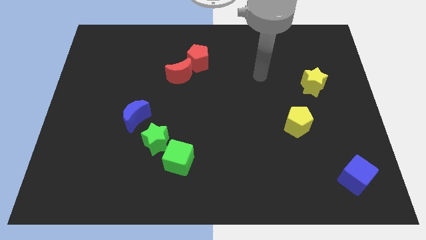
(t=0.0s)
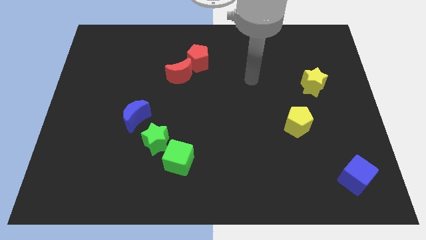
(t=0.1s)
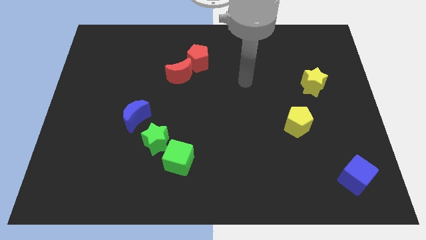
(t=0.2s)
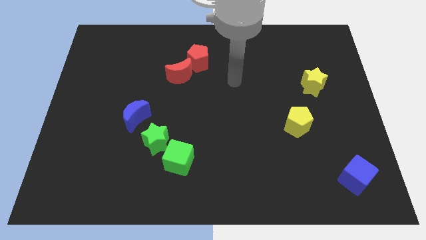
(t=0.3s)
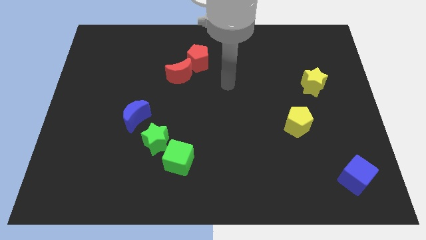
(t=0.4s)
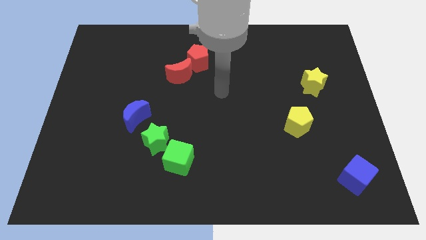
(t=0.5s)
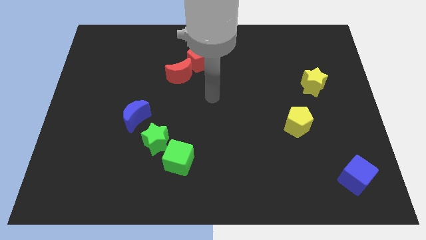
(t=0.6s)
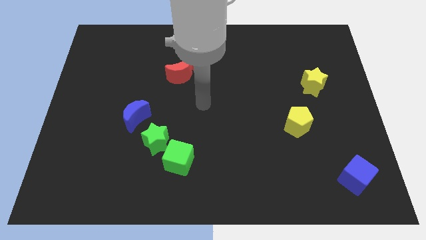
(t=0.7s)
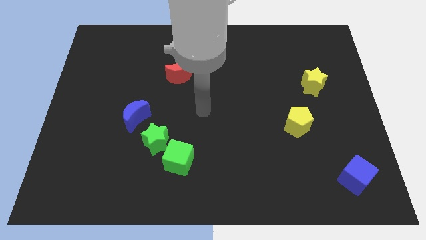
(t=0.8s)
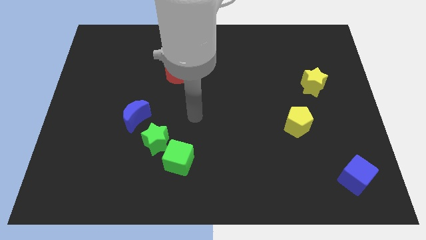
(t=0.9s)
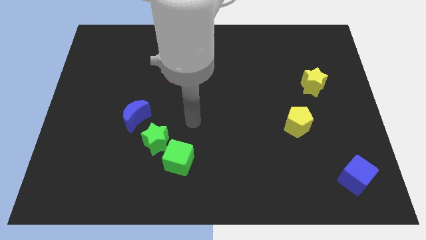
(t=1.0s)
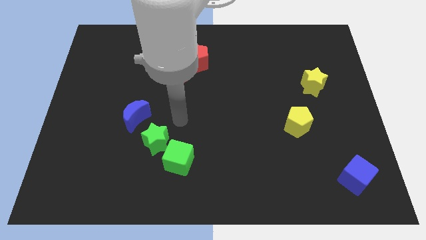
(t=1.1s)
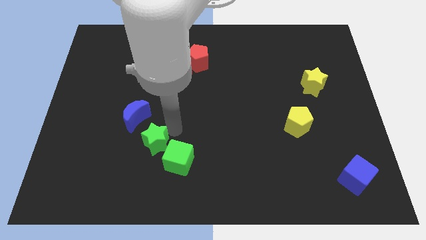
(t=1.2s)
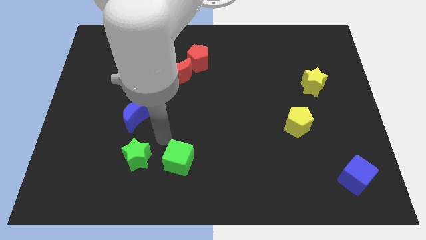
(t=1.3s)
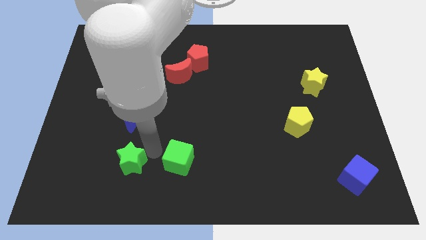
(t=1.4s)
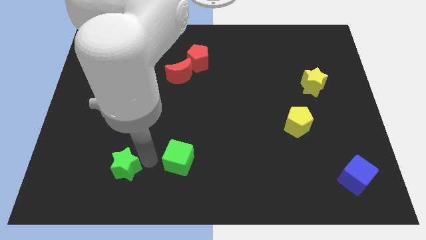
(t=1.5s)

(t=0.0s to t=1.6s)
separate the green cube from the green star

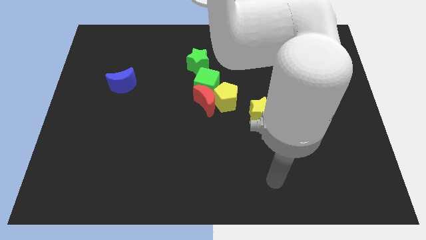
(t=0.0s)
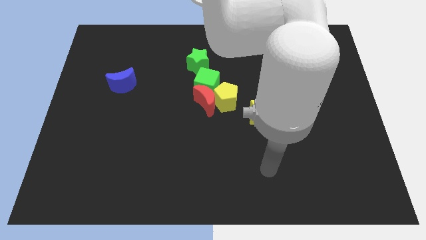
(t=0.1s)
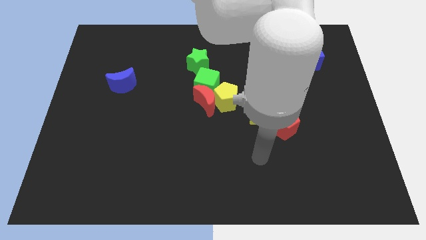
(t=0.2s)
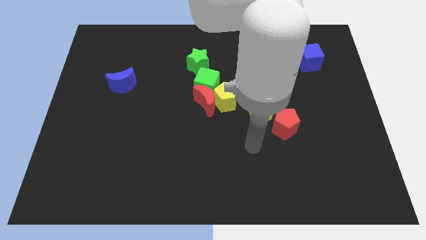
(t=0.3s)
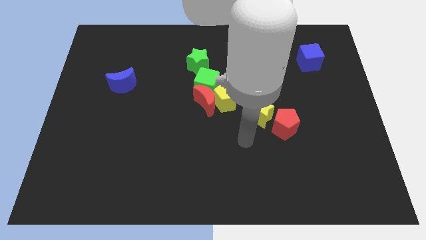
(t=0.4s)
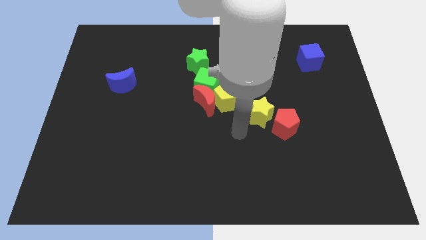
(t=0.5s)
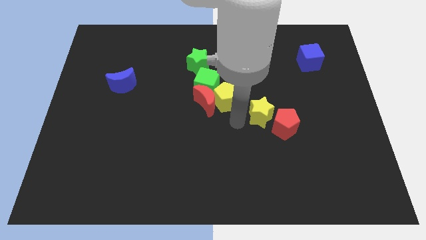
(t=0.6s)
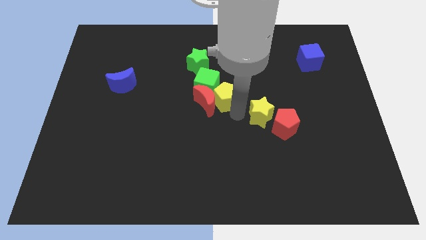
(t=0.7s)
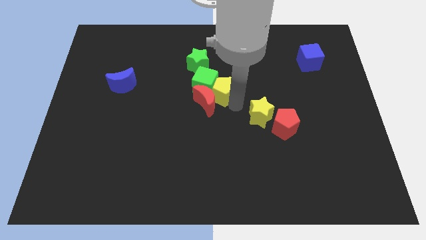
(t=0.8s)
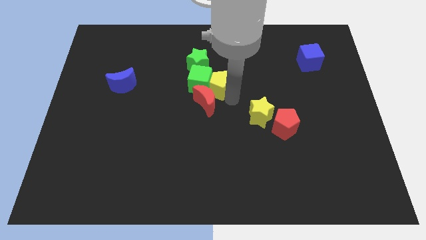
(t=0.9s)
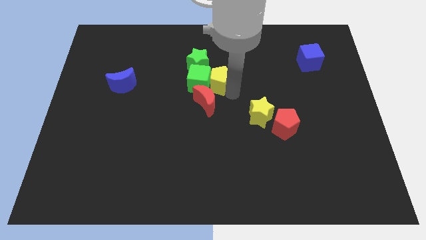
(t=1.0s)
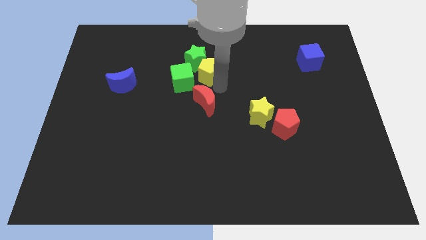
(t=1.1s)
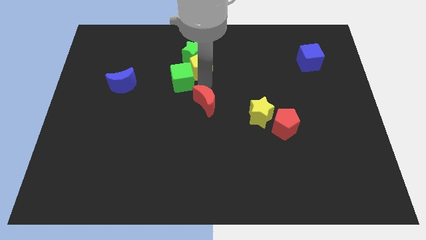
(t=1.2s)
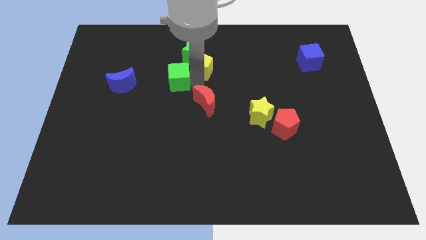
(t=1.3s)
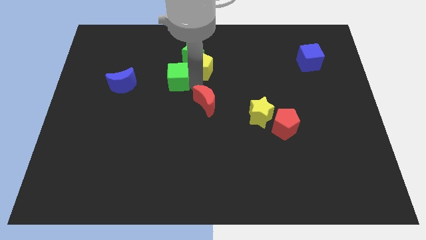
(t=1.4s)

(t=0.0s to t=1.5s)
separate the red moon from the yellow pentagon and green cube

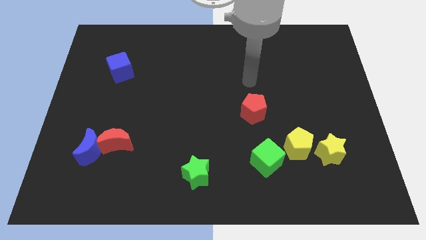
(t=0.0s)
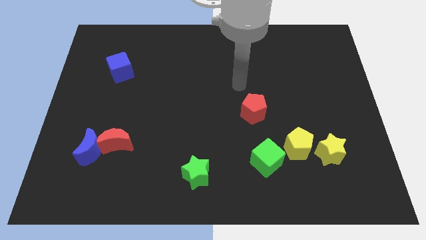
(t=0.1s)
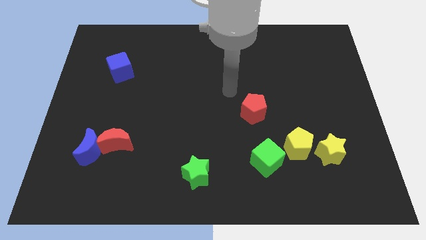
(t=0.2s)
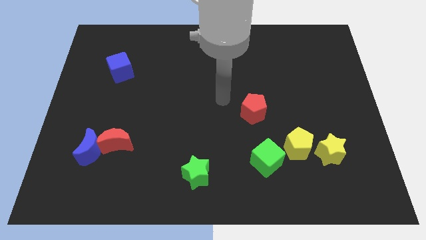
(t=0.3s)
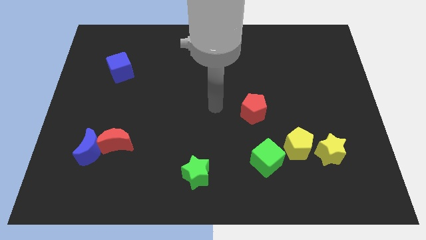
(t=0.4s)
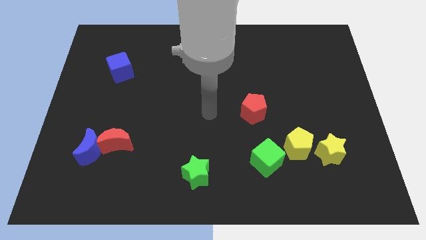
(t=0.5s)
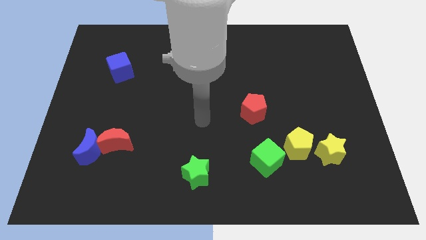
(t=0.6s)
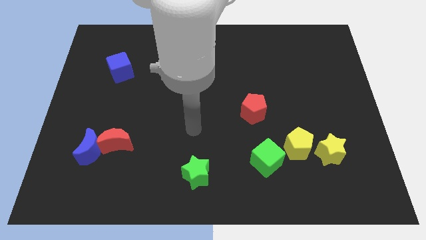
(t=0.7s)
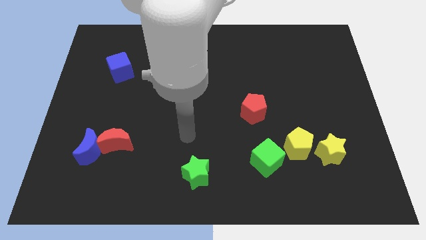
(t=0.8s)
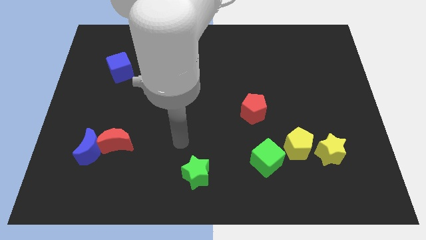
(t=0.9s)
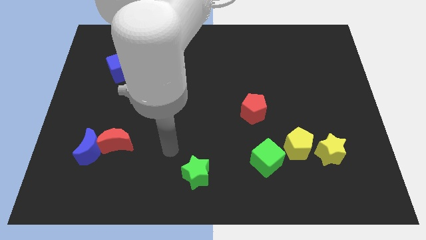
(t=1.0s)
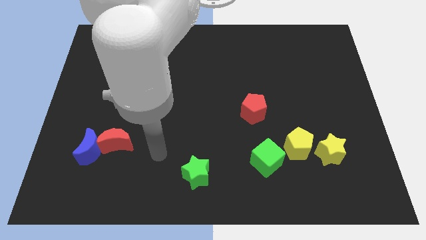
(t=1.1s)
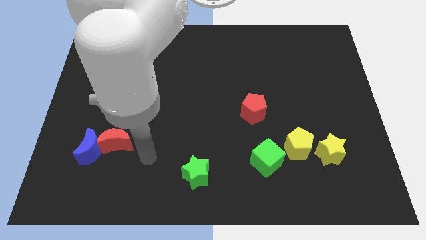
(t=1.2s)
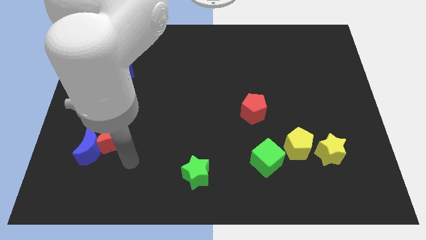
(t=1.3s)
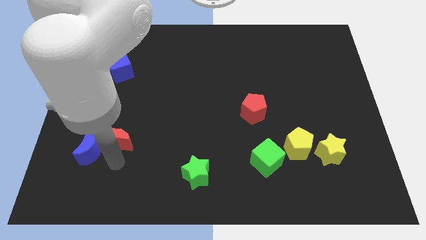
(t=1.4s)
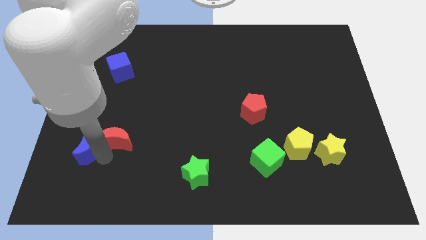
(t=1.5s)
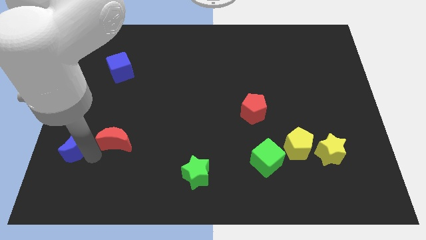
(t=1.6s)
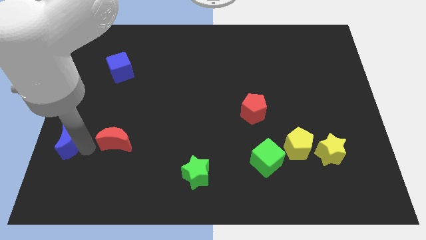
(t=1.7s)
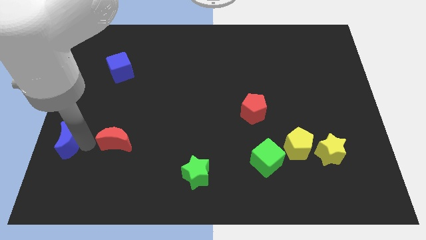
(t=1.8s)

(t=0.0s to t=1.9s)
pull the red moon apart from the blue moon

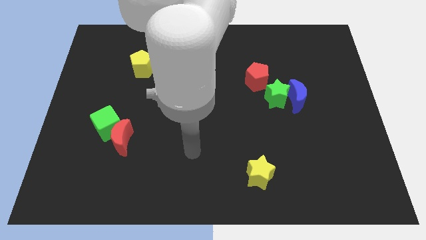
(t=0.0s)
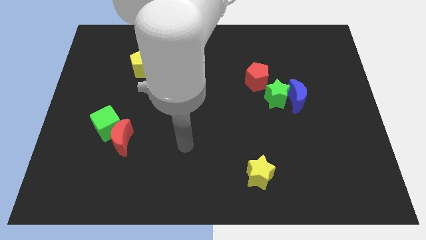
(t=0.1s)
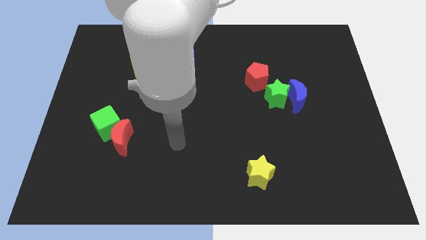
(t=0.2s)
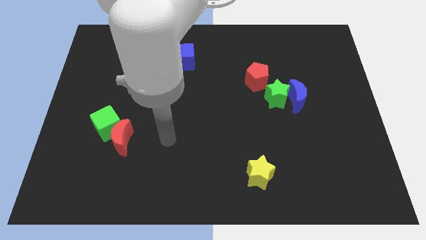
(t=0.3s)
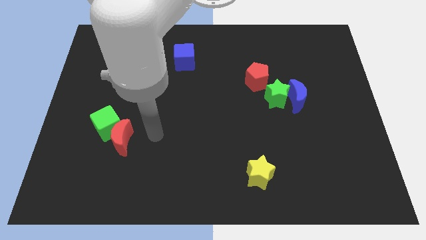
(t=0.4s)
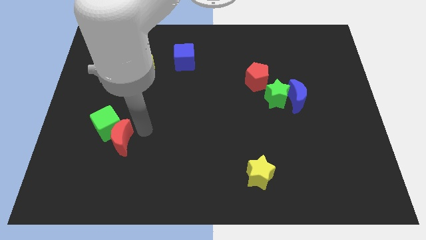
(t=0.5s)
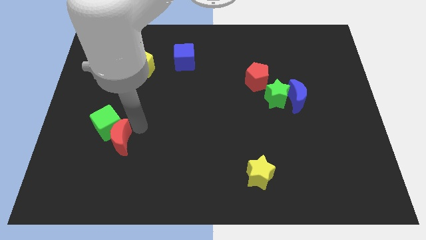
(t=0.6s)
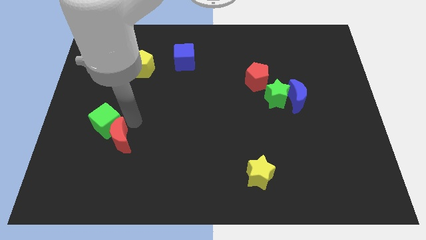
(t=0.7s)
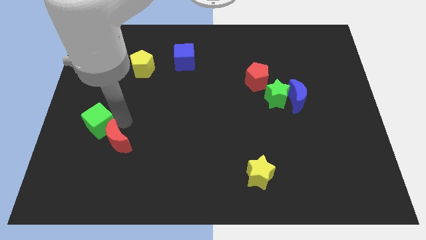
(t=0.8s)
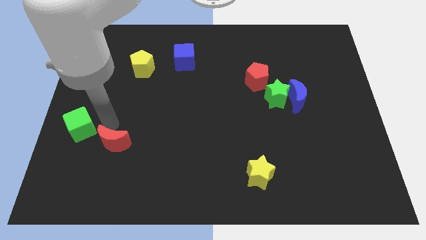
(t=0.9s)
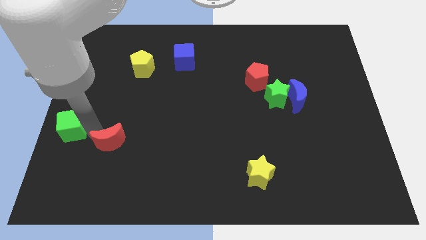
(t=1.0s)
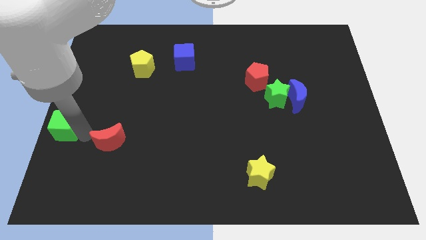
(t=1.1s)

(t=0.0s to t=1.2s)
pull the red moon apart from the green cube

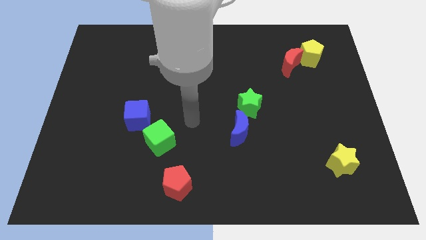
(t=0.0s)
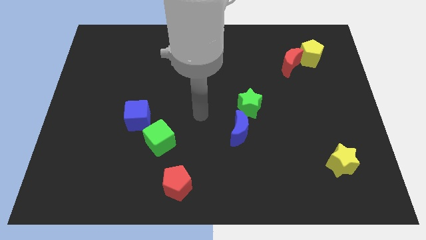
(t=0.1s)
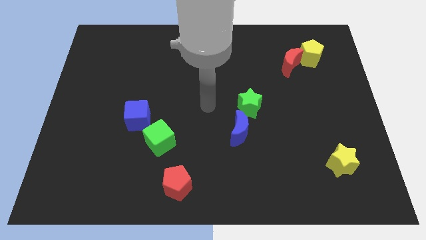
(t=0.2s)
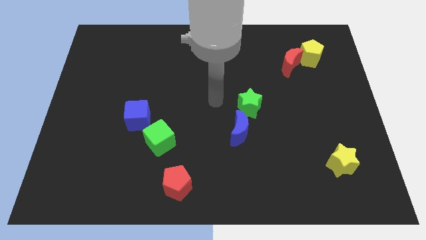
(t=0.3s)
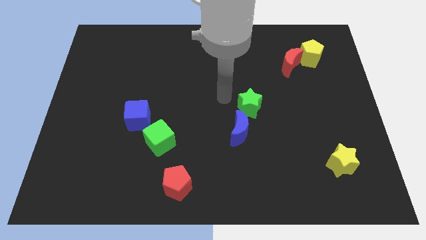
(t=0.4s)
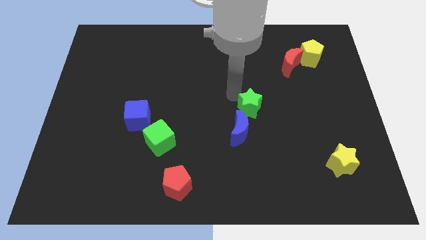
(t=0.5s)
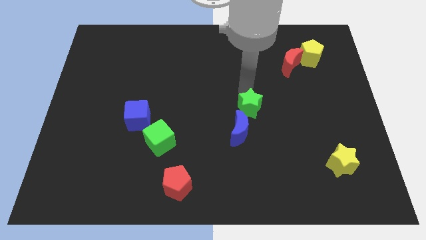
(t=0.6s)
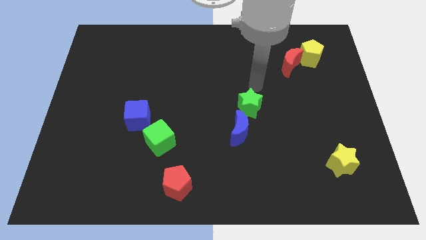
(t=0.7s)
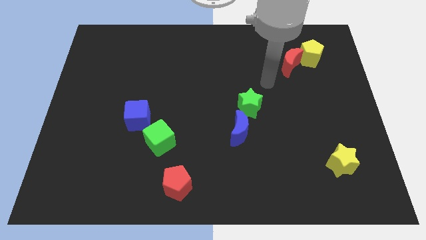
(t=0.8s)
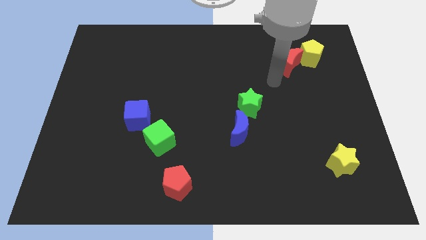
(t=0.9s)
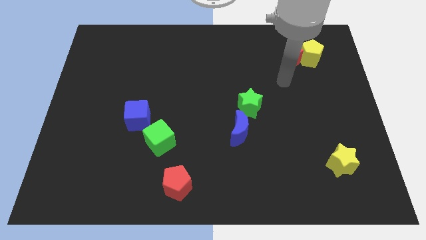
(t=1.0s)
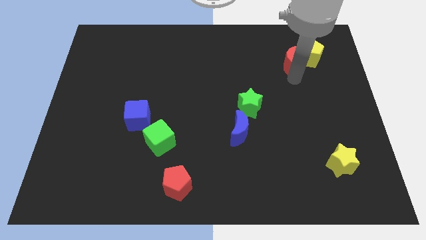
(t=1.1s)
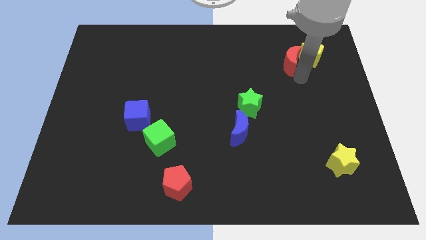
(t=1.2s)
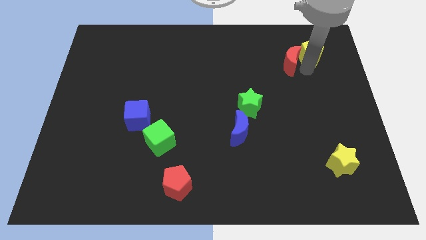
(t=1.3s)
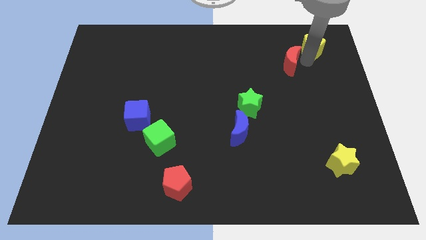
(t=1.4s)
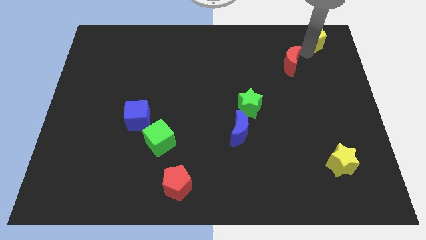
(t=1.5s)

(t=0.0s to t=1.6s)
separate the red moon from the yellow pentagon

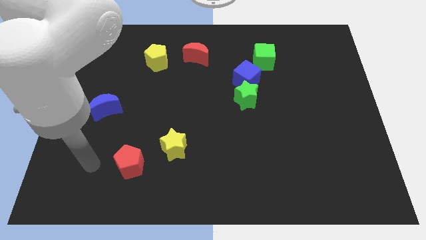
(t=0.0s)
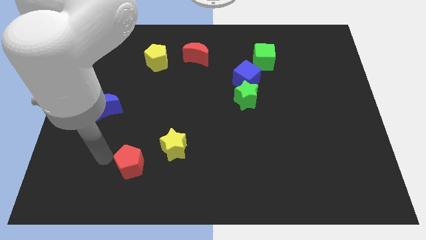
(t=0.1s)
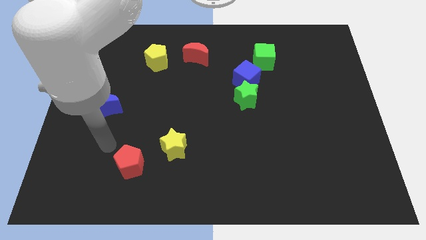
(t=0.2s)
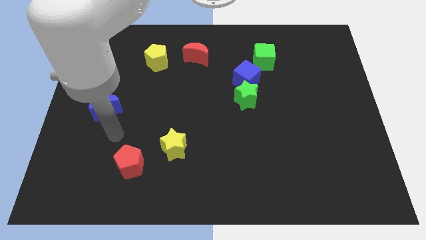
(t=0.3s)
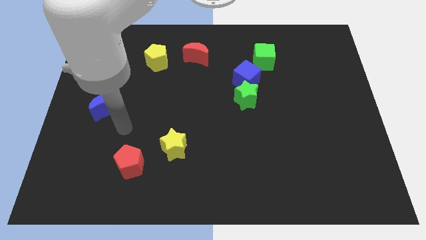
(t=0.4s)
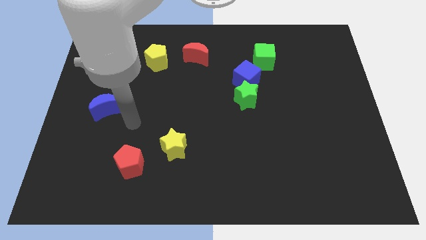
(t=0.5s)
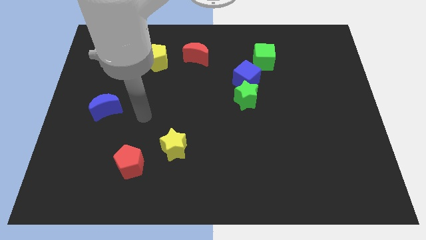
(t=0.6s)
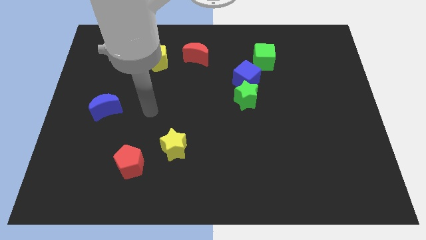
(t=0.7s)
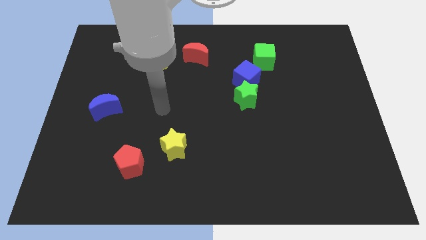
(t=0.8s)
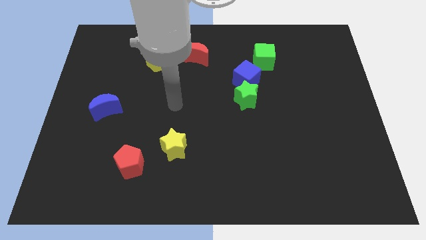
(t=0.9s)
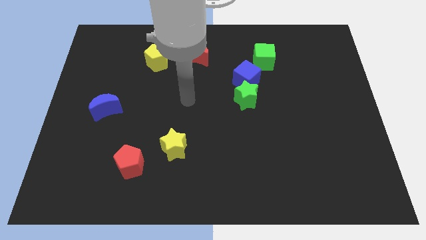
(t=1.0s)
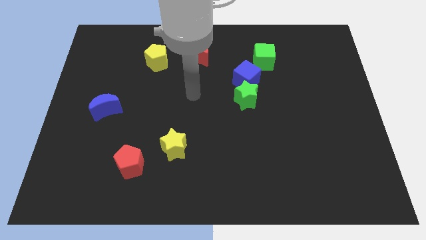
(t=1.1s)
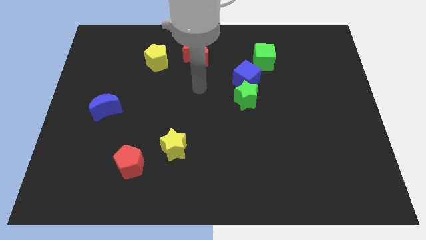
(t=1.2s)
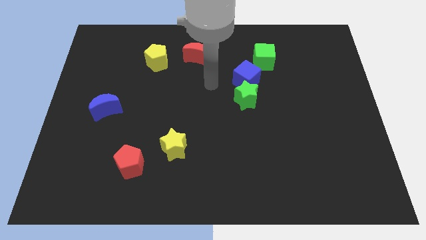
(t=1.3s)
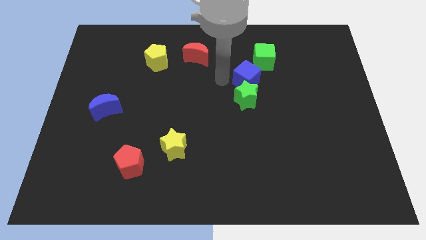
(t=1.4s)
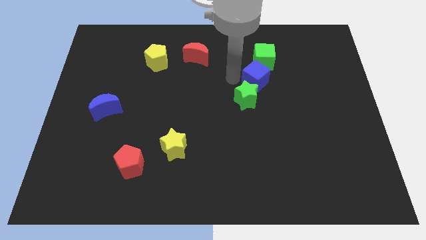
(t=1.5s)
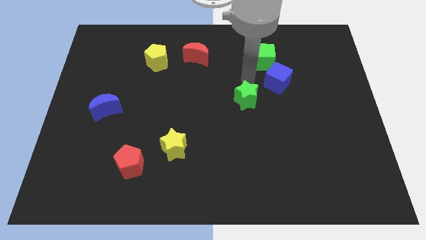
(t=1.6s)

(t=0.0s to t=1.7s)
move the green star away from the blue cube
